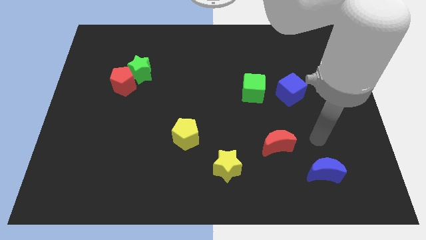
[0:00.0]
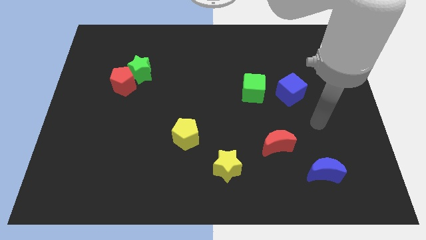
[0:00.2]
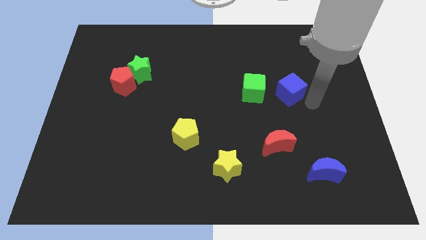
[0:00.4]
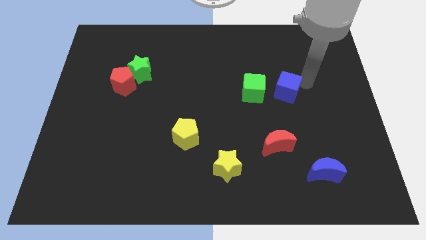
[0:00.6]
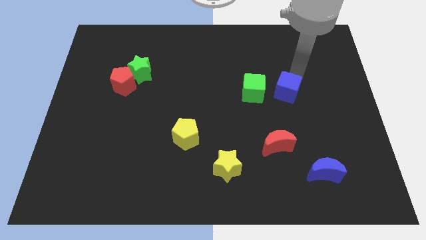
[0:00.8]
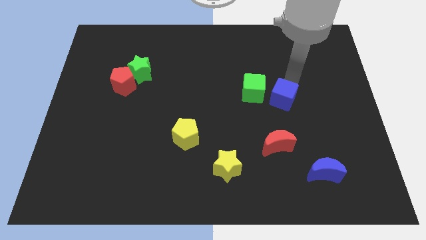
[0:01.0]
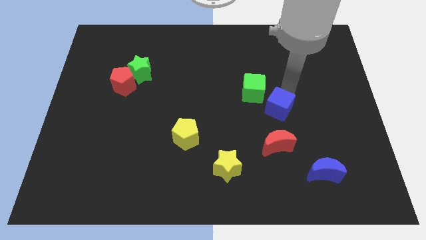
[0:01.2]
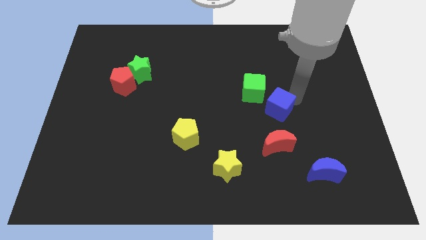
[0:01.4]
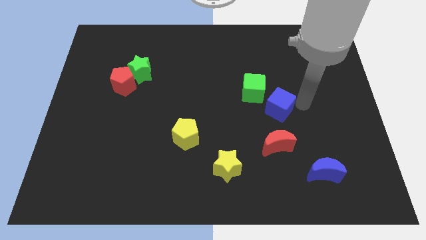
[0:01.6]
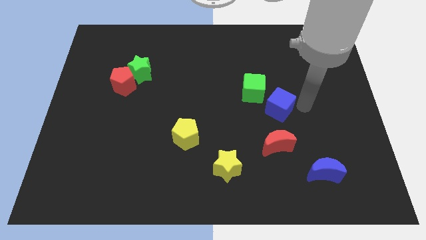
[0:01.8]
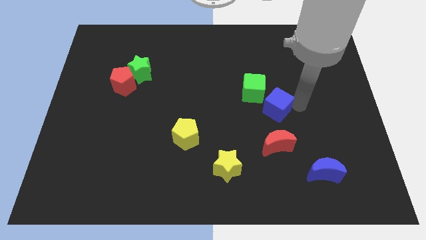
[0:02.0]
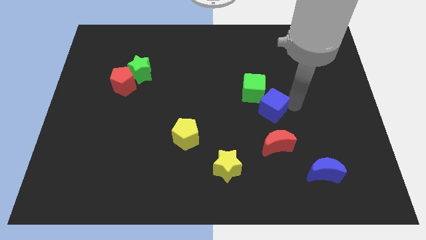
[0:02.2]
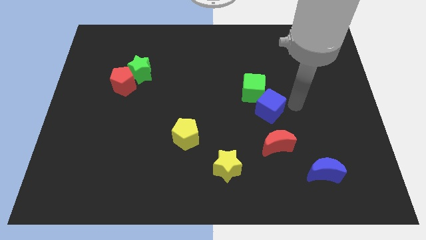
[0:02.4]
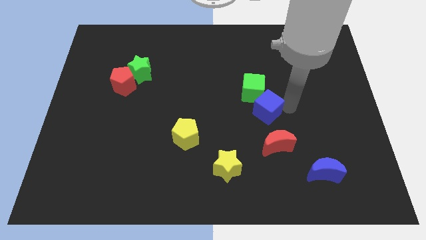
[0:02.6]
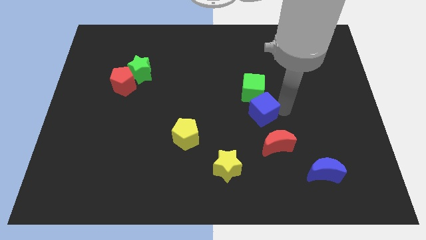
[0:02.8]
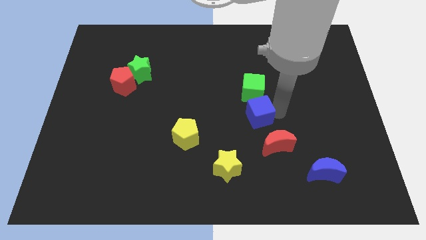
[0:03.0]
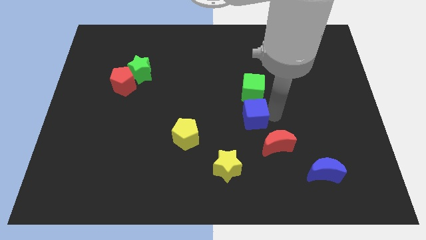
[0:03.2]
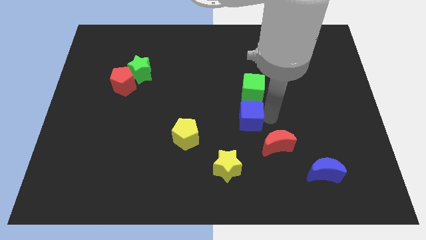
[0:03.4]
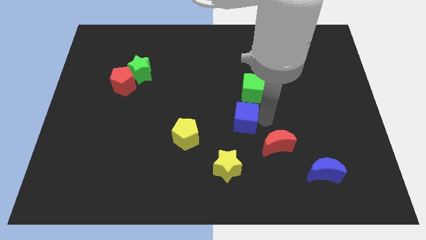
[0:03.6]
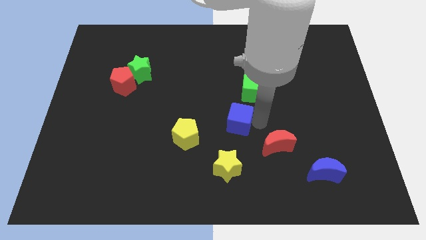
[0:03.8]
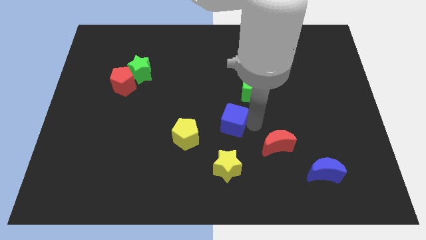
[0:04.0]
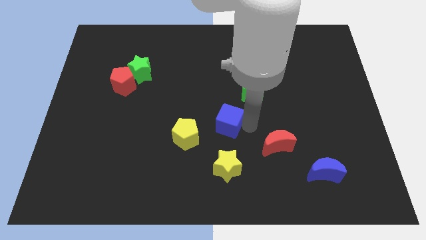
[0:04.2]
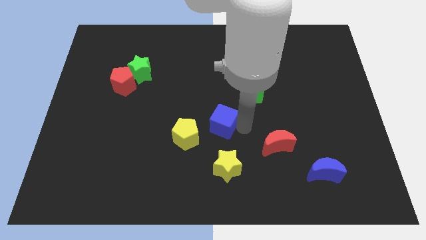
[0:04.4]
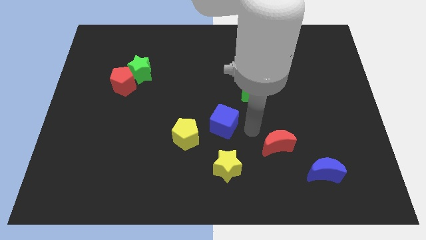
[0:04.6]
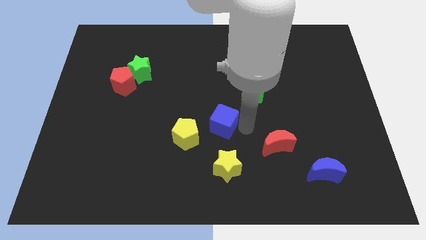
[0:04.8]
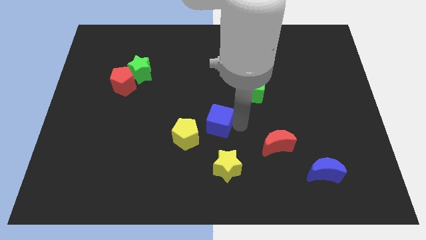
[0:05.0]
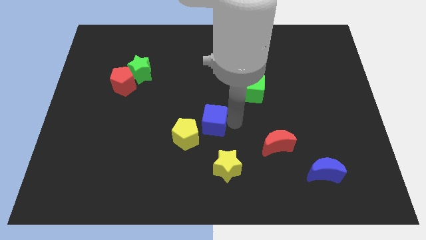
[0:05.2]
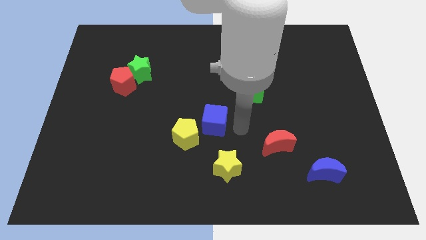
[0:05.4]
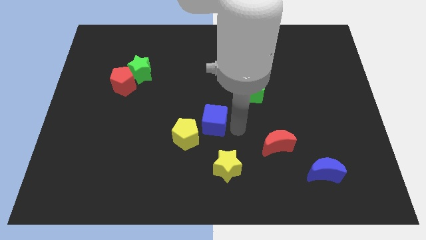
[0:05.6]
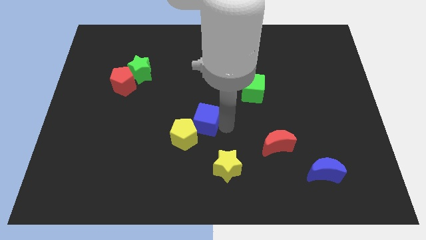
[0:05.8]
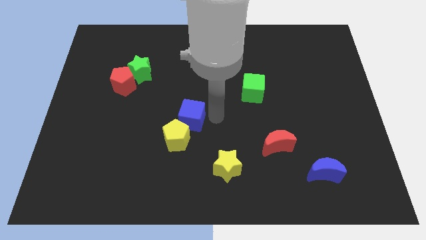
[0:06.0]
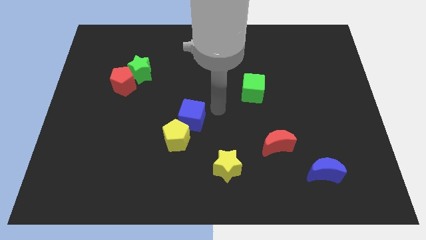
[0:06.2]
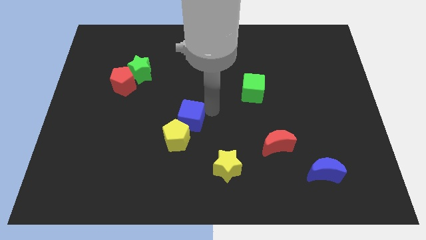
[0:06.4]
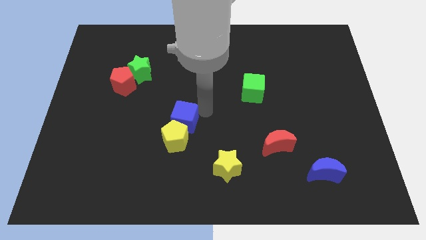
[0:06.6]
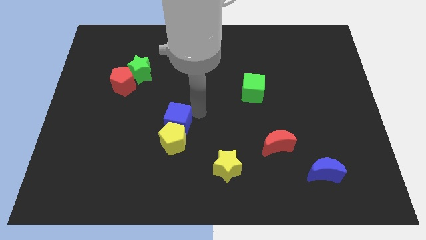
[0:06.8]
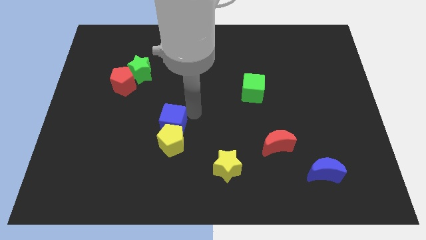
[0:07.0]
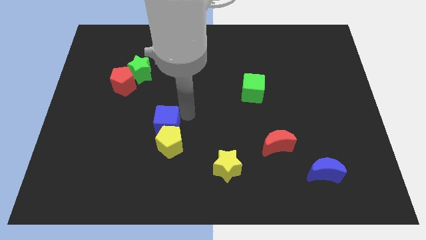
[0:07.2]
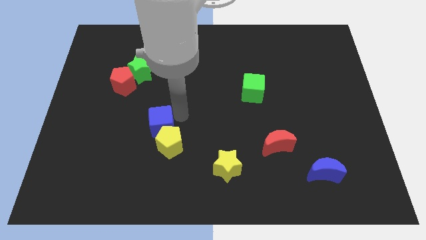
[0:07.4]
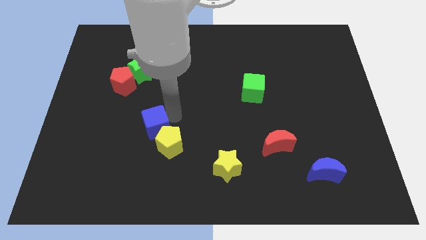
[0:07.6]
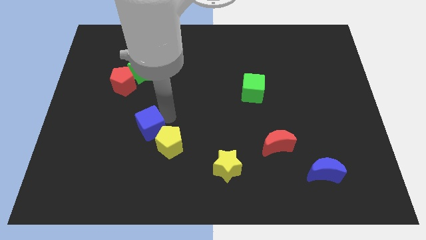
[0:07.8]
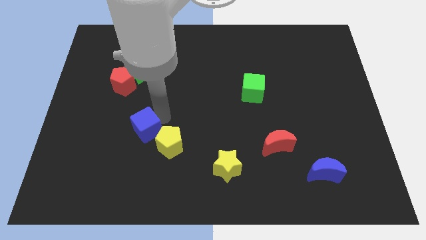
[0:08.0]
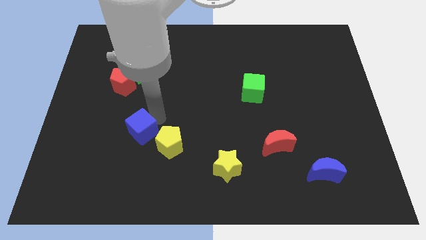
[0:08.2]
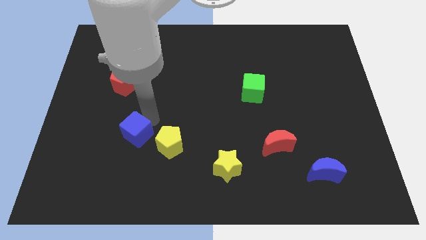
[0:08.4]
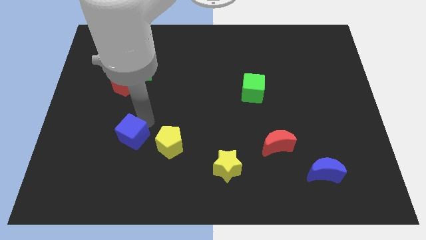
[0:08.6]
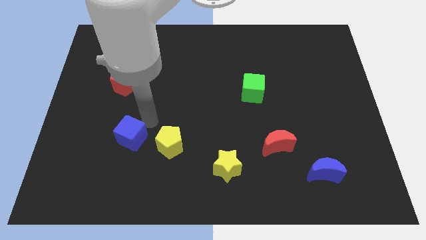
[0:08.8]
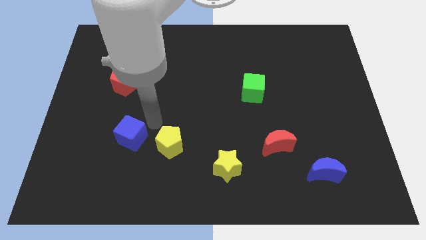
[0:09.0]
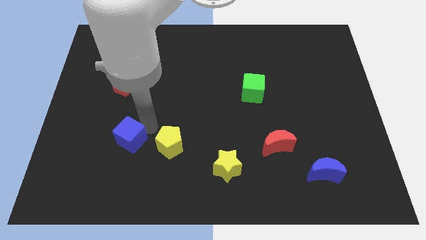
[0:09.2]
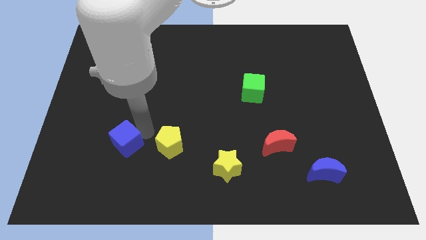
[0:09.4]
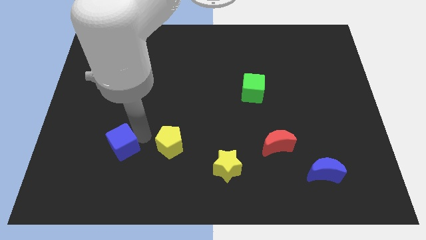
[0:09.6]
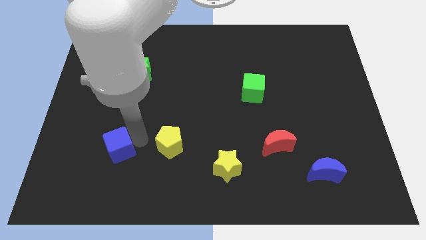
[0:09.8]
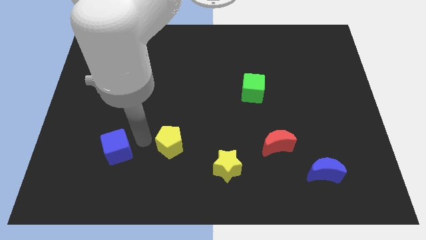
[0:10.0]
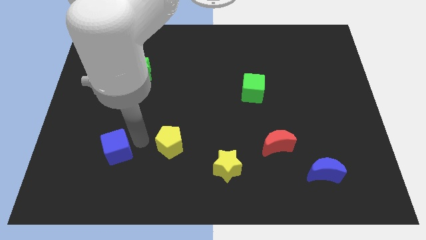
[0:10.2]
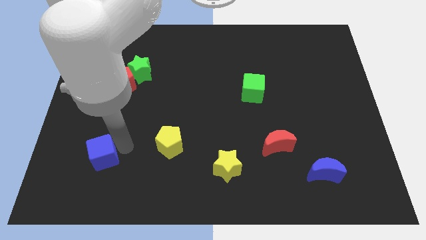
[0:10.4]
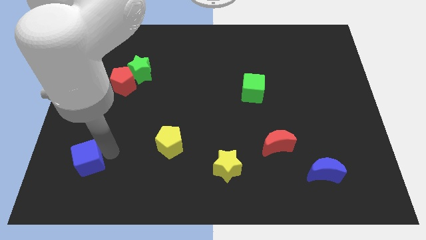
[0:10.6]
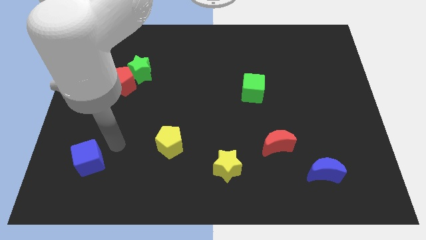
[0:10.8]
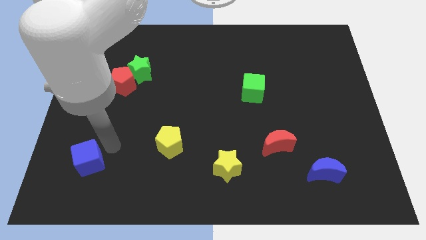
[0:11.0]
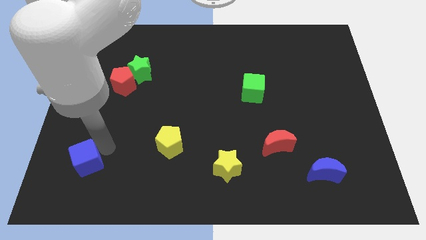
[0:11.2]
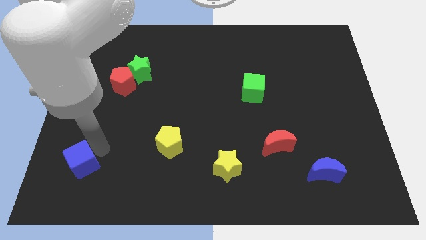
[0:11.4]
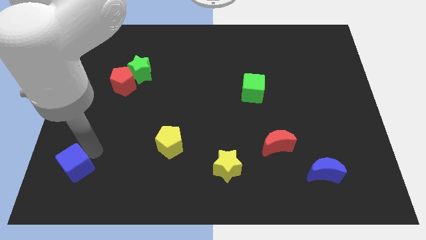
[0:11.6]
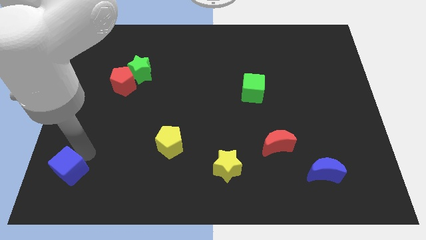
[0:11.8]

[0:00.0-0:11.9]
put the blue cube to the lower left corner

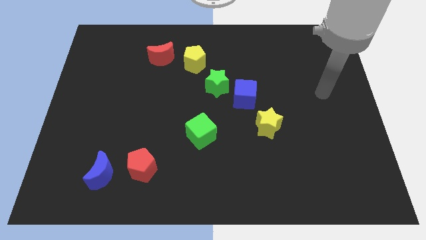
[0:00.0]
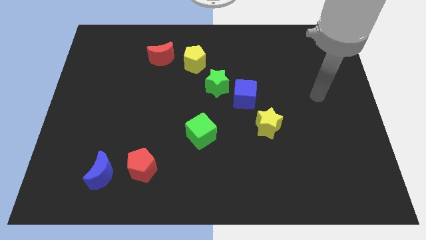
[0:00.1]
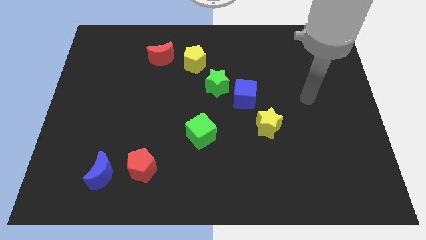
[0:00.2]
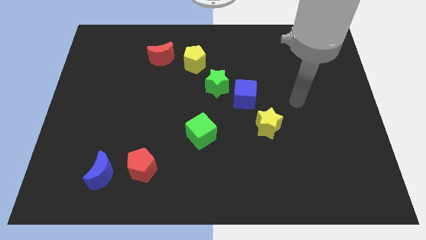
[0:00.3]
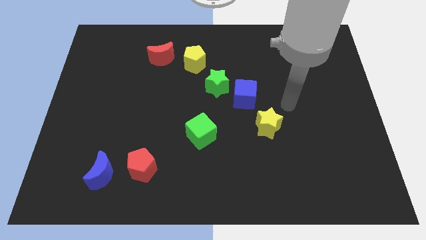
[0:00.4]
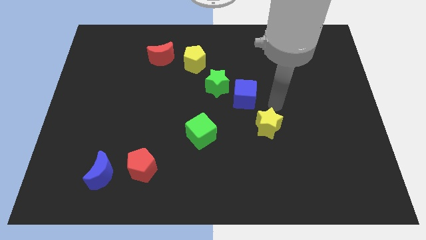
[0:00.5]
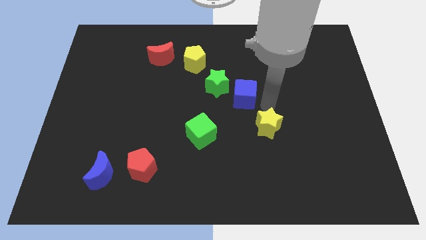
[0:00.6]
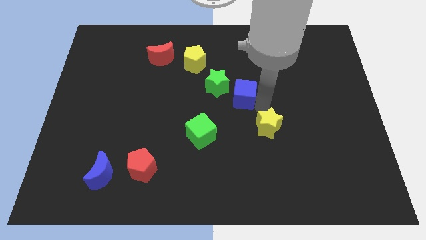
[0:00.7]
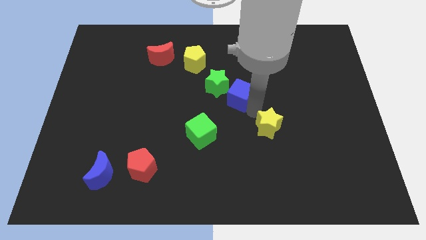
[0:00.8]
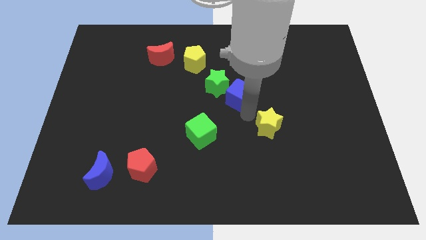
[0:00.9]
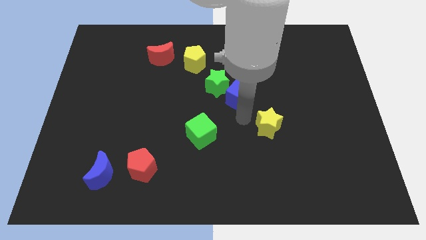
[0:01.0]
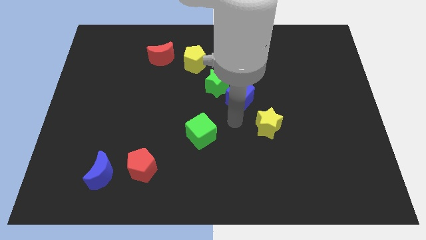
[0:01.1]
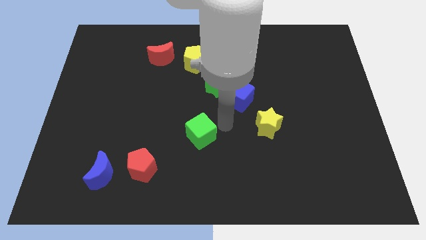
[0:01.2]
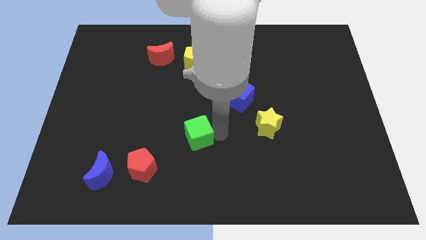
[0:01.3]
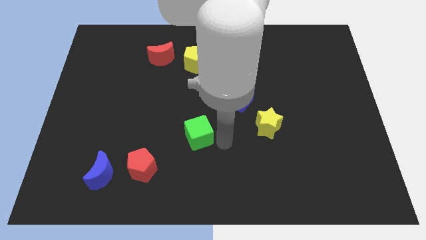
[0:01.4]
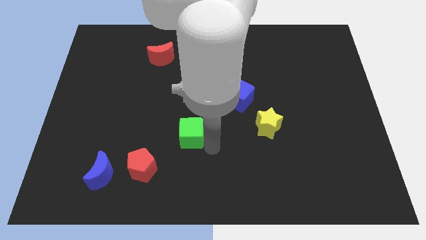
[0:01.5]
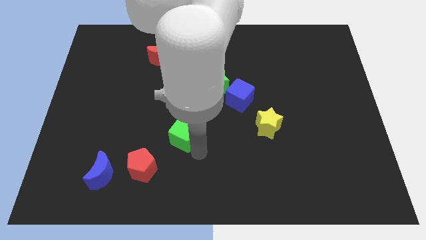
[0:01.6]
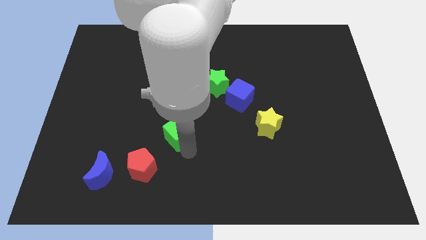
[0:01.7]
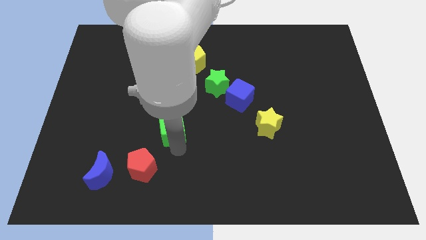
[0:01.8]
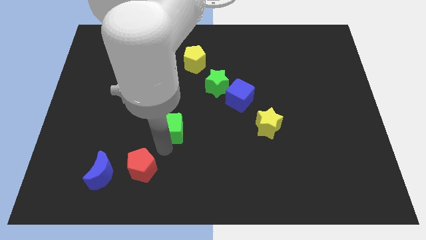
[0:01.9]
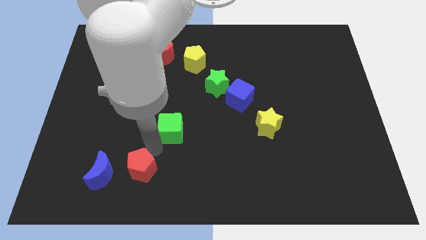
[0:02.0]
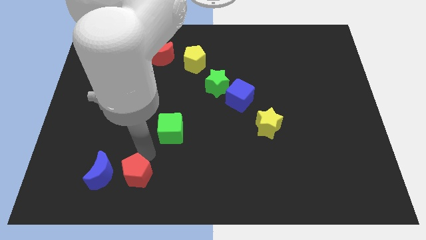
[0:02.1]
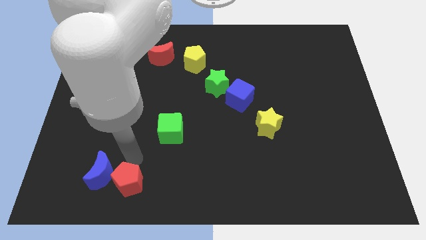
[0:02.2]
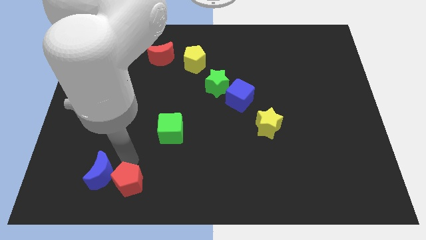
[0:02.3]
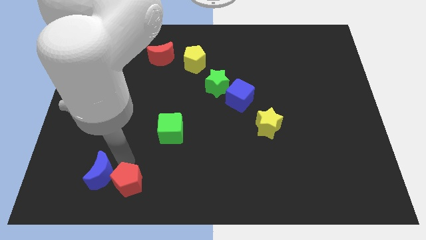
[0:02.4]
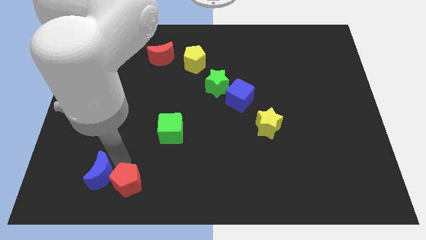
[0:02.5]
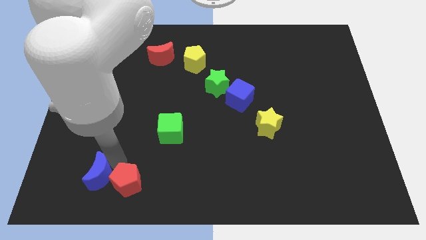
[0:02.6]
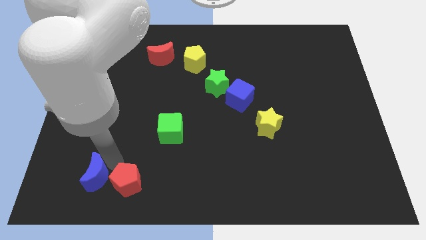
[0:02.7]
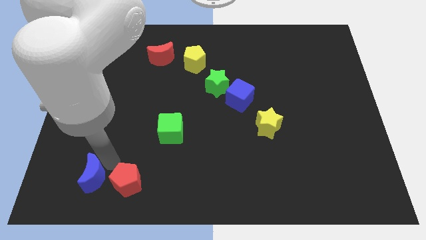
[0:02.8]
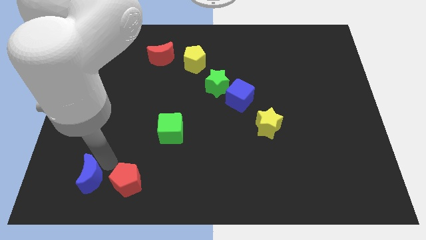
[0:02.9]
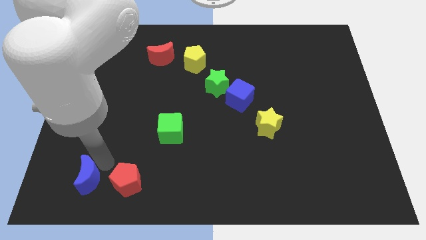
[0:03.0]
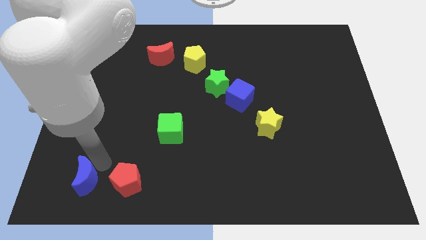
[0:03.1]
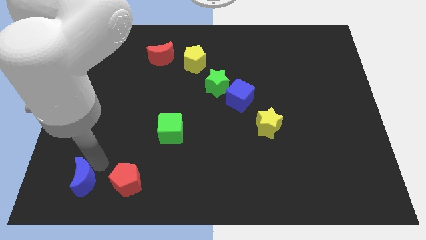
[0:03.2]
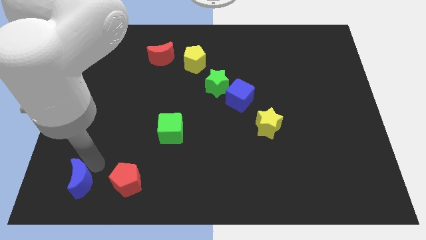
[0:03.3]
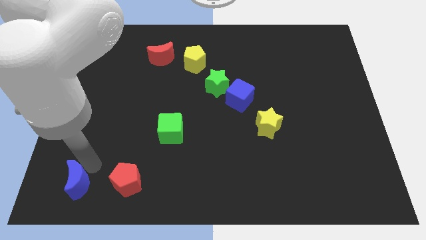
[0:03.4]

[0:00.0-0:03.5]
move the blue moon to the bottom left
